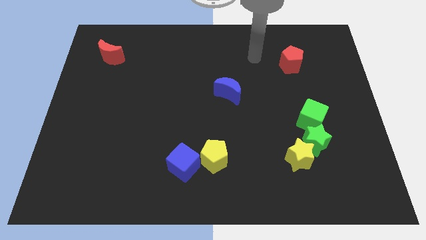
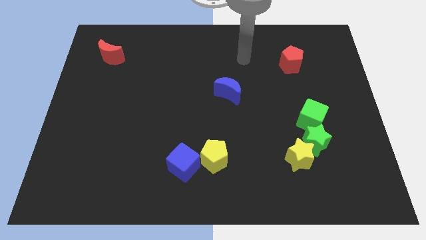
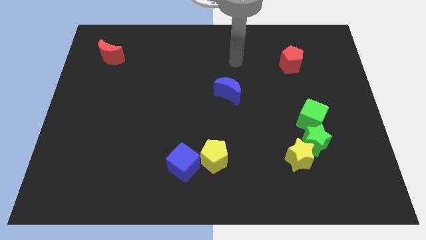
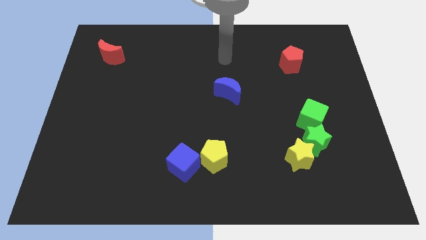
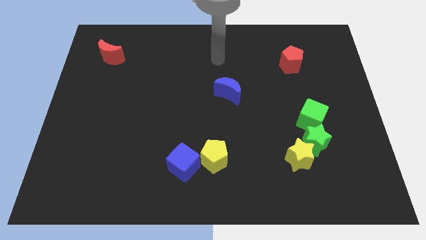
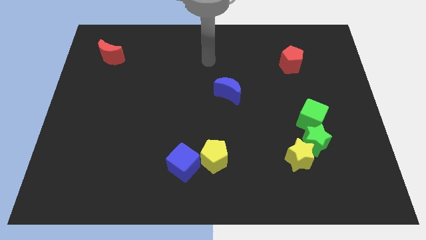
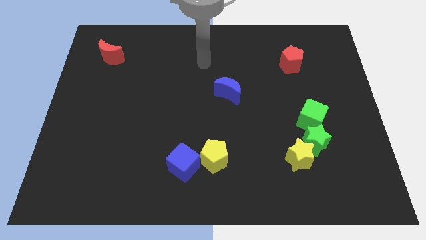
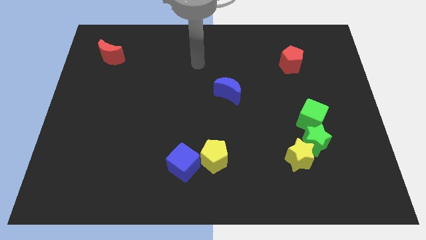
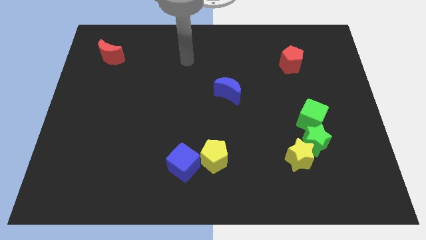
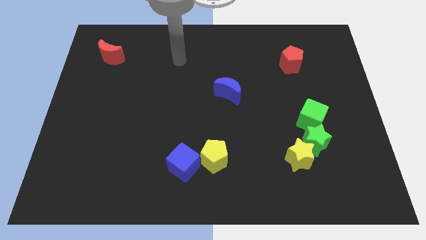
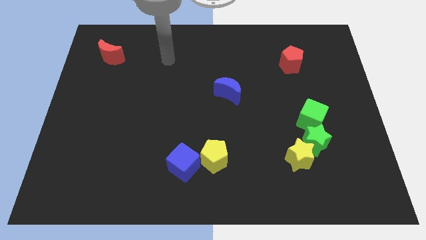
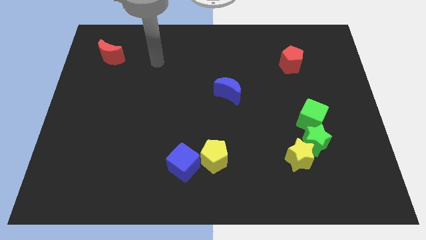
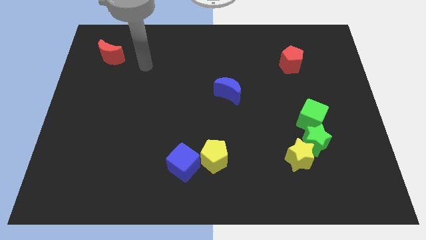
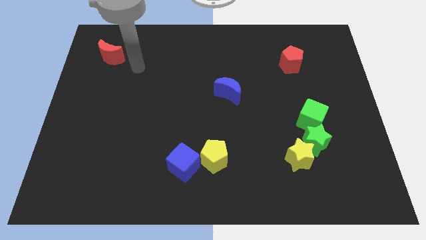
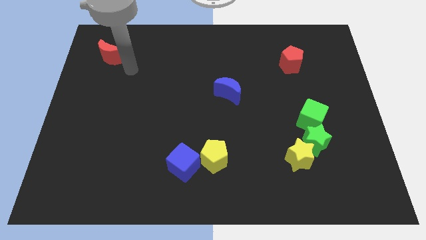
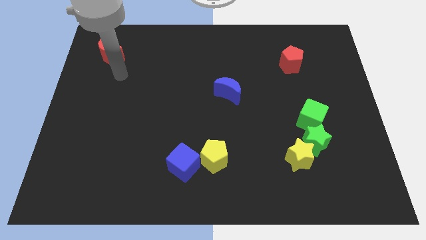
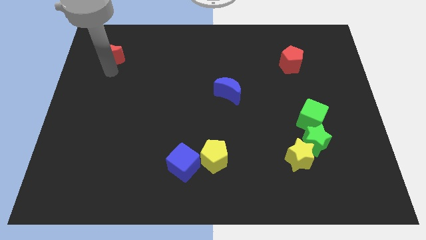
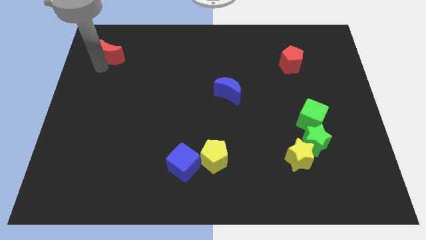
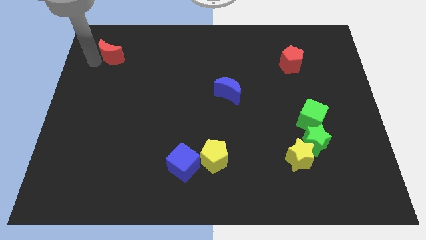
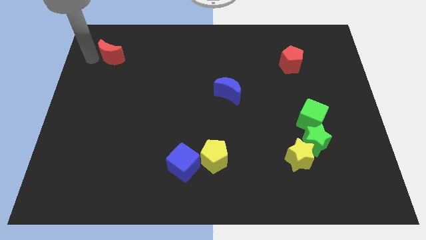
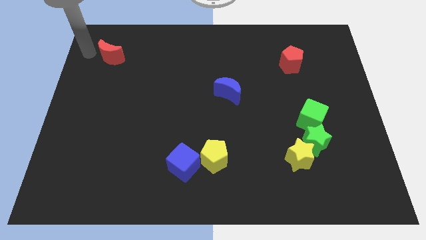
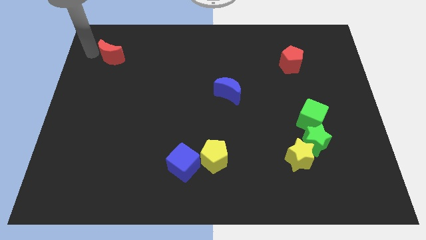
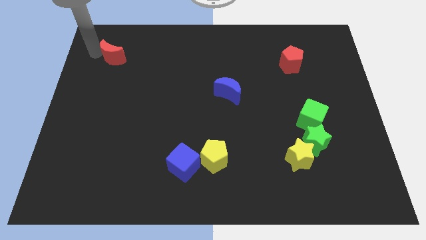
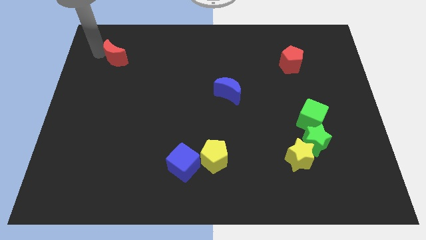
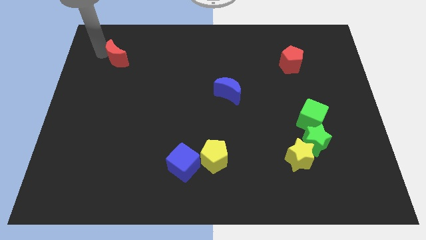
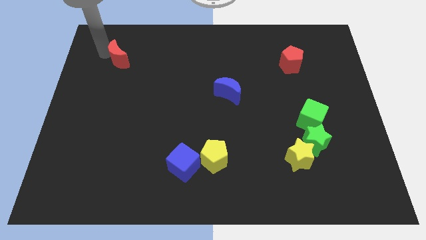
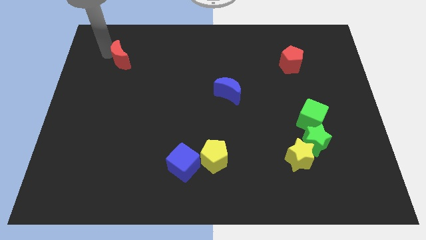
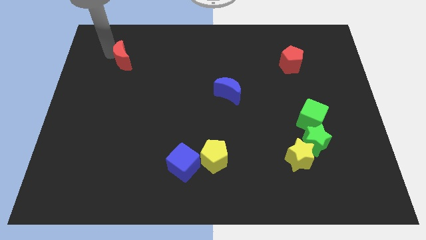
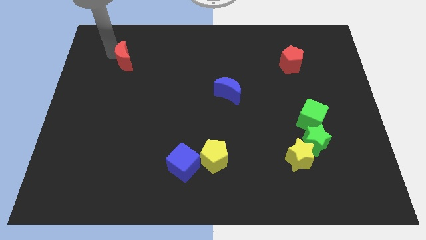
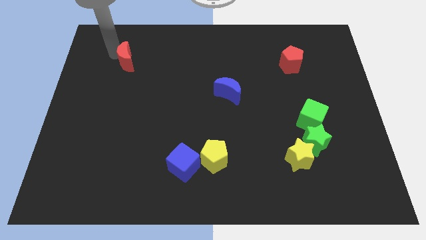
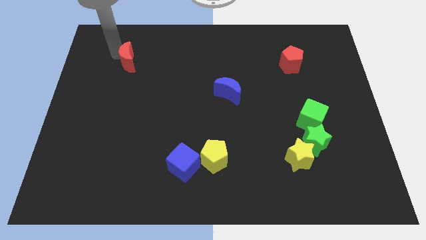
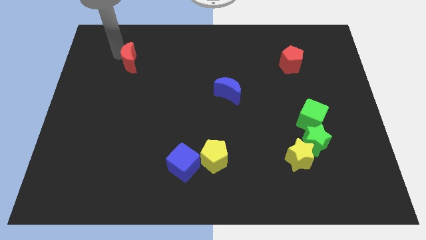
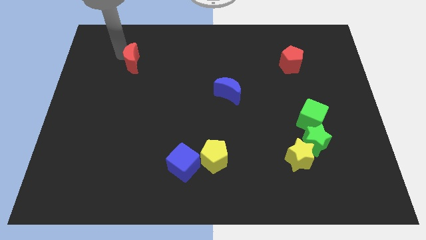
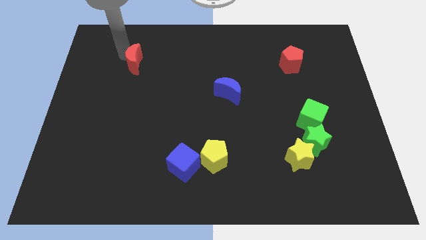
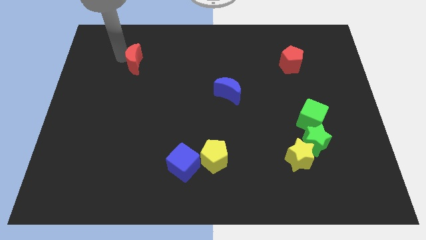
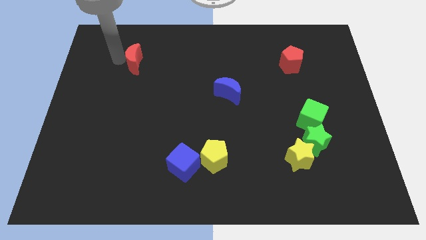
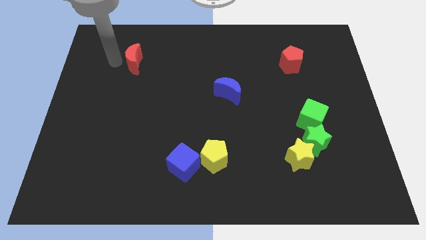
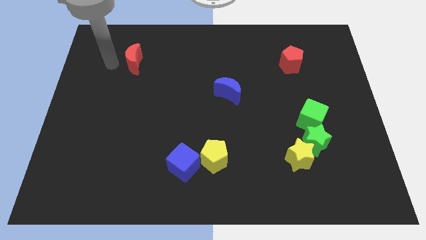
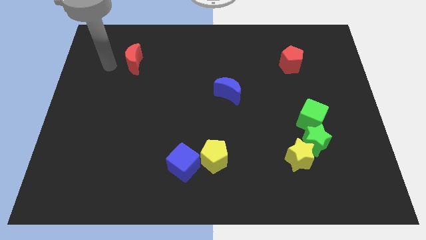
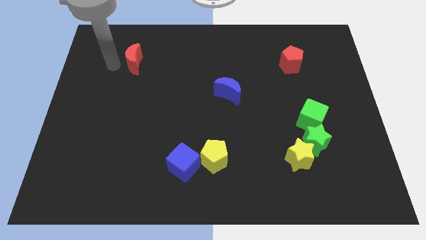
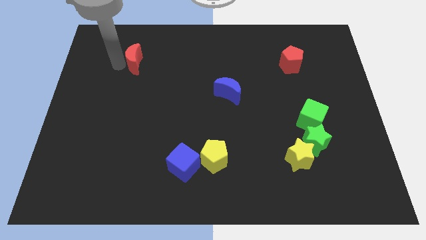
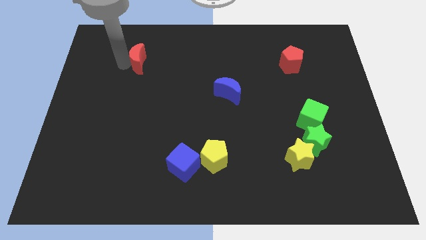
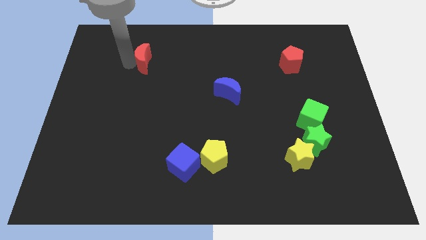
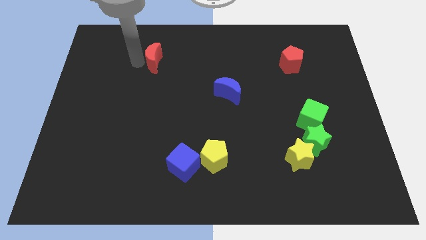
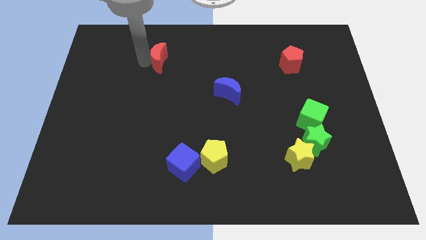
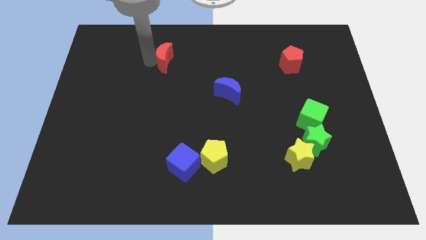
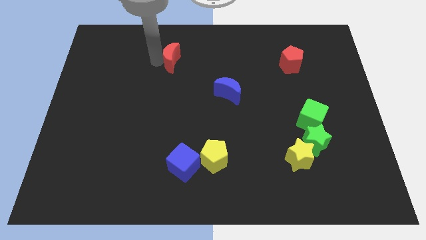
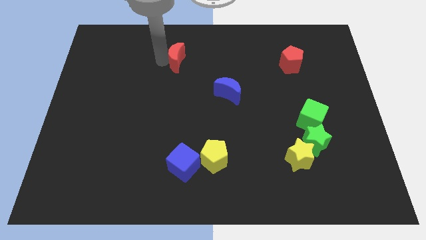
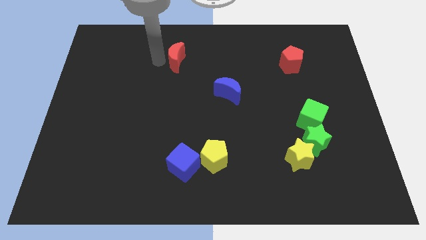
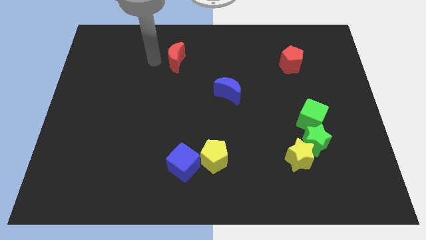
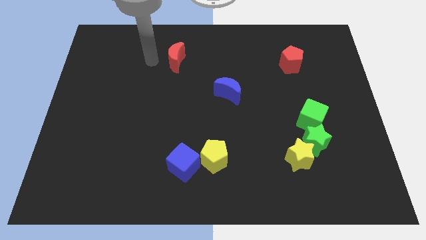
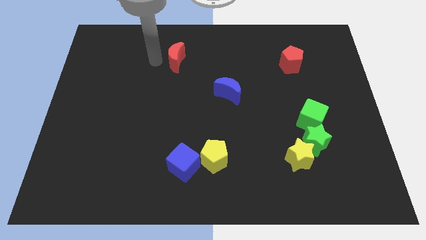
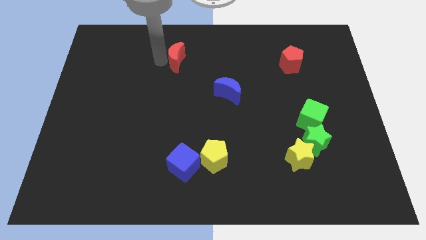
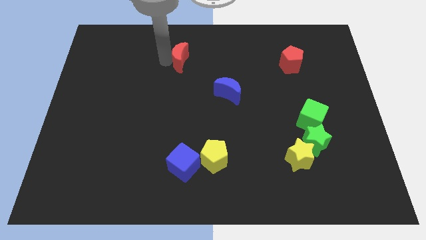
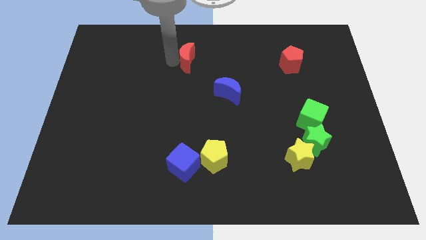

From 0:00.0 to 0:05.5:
move the red moon to the right

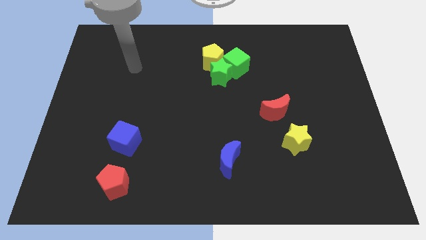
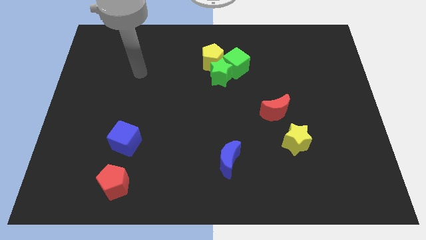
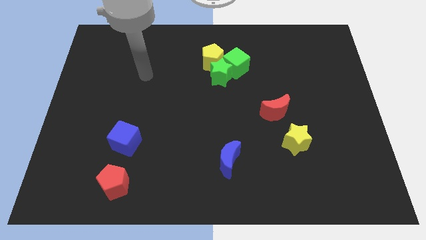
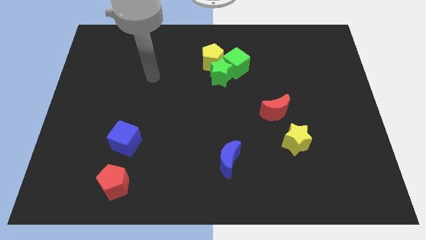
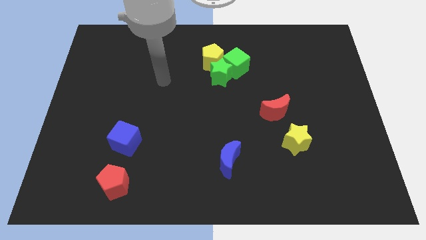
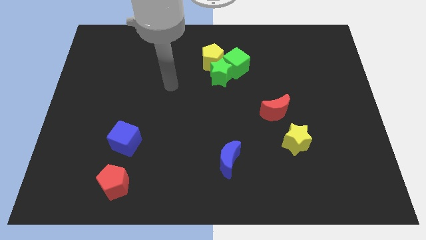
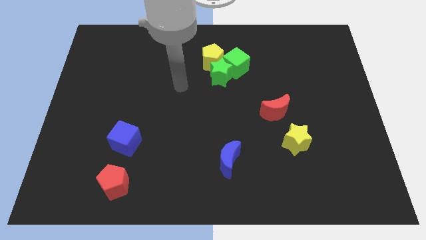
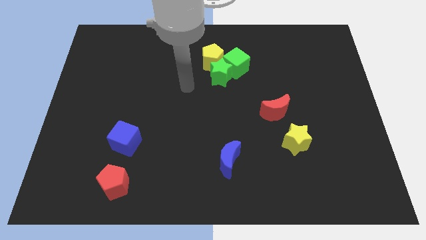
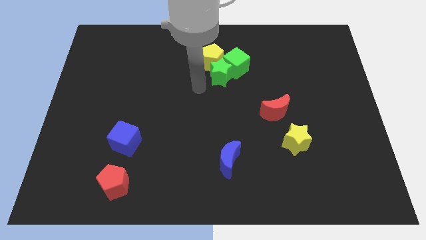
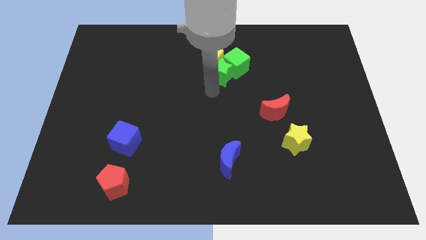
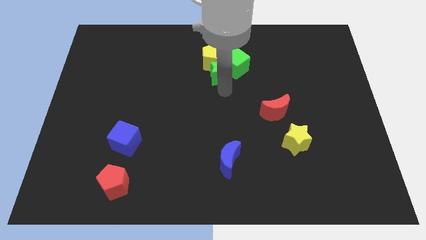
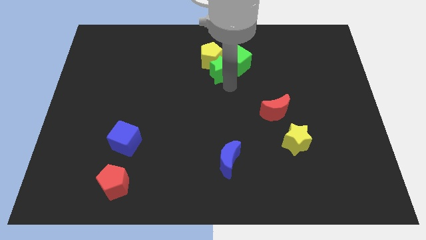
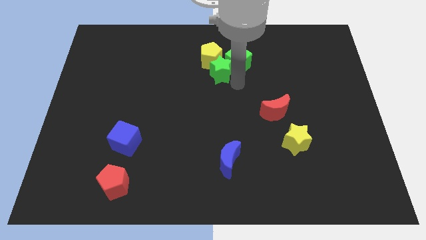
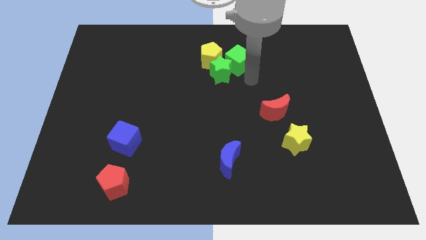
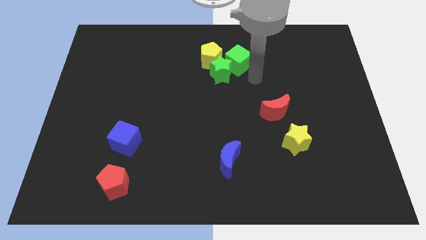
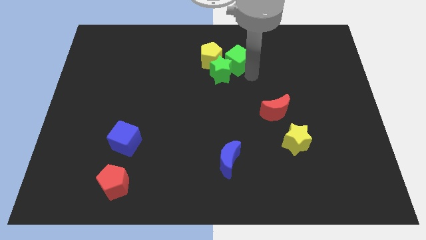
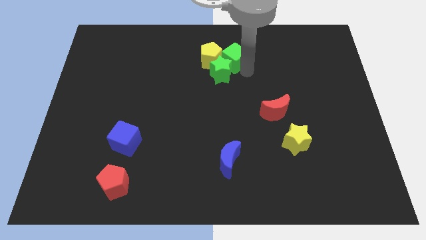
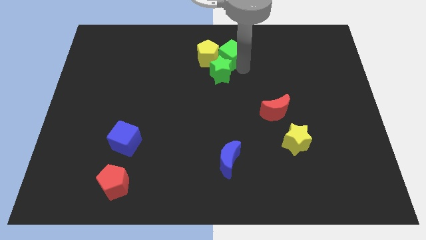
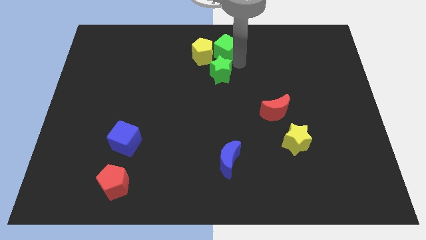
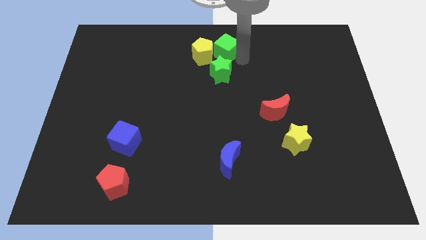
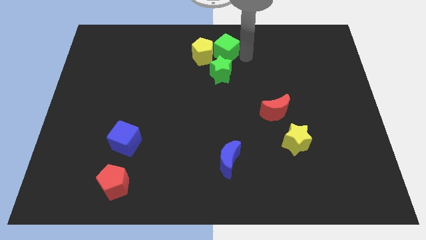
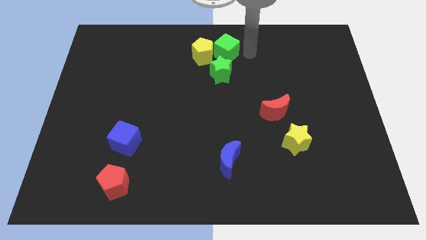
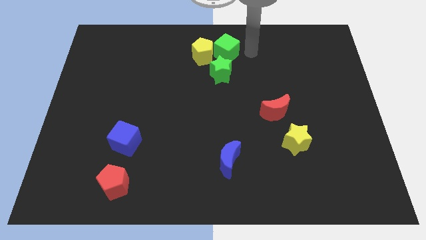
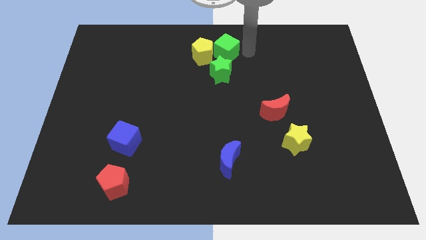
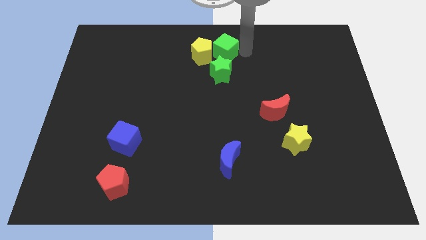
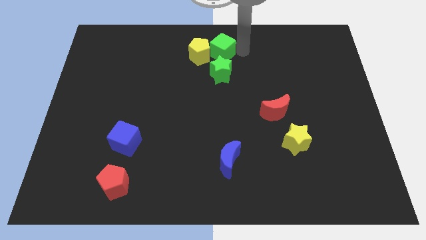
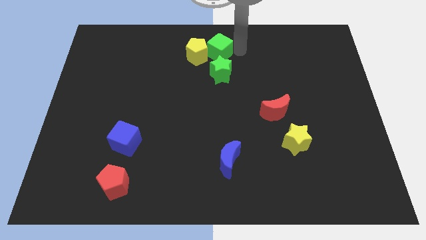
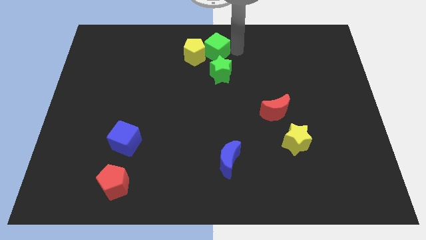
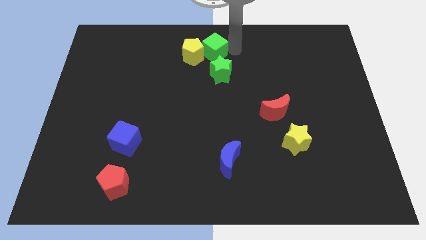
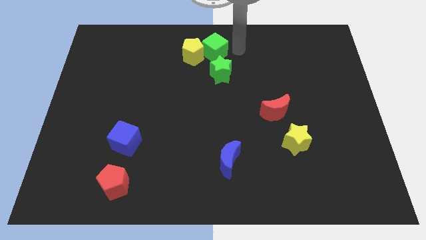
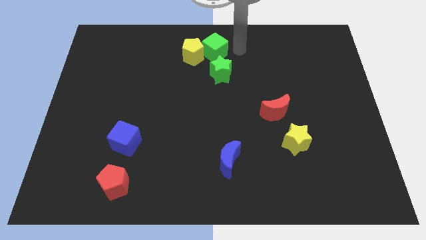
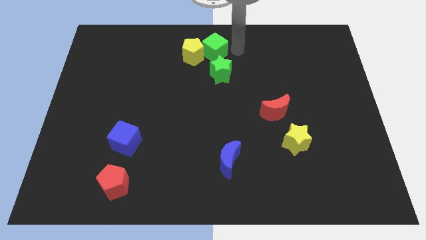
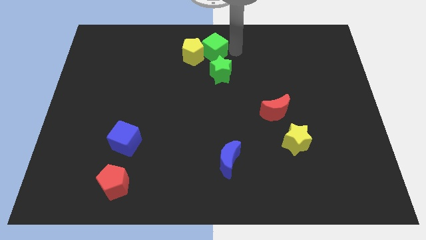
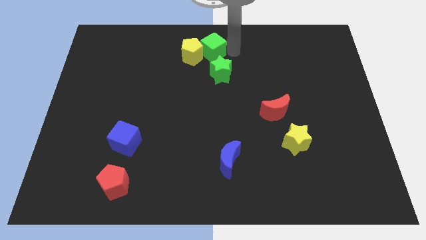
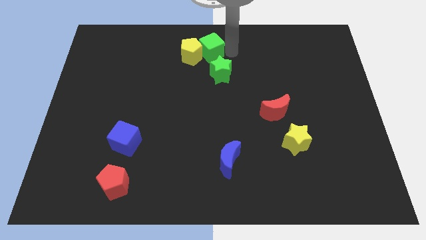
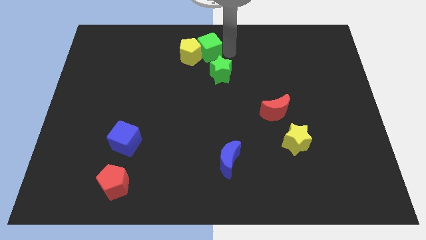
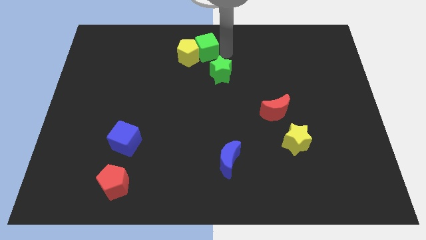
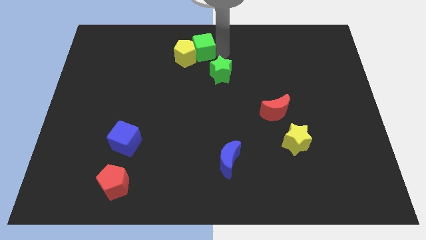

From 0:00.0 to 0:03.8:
move the green cube somewhat to the left
